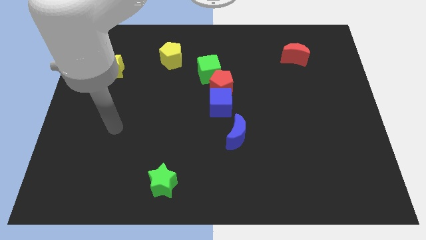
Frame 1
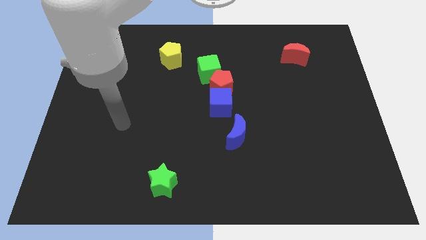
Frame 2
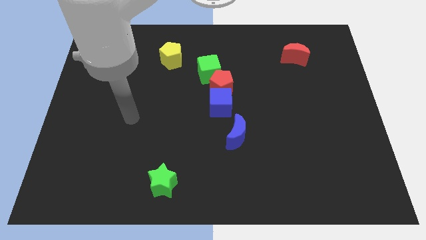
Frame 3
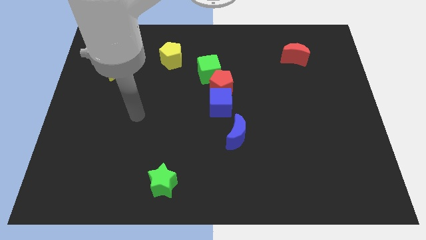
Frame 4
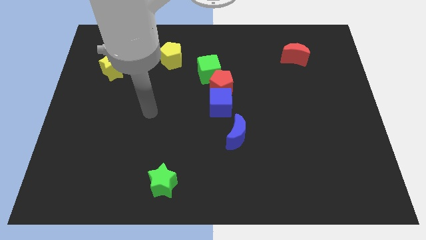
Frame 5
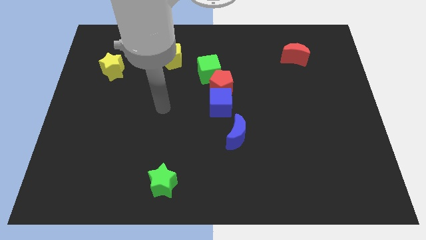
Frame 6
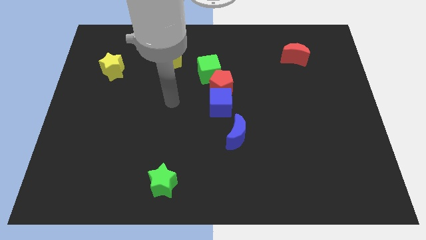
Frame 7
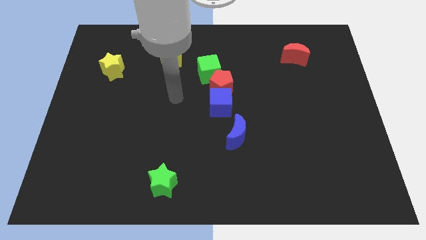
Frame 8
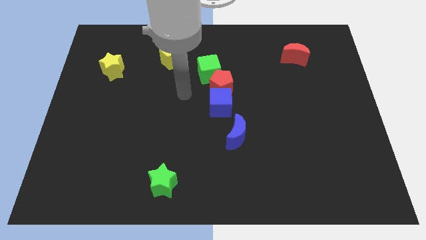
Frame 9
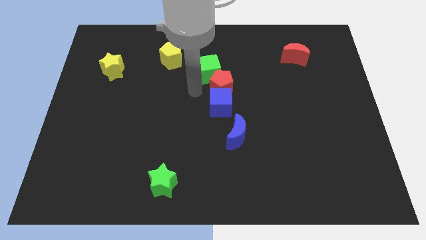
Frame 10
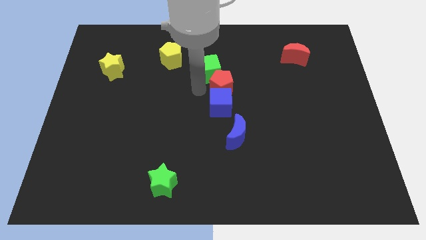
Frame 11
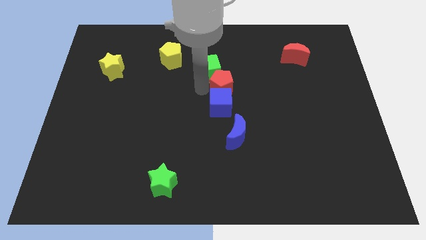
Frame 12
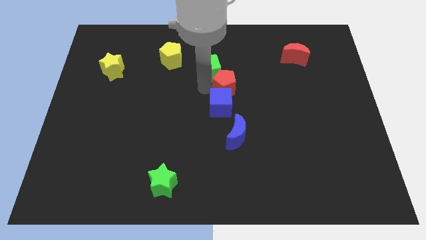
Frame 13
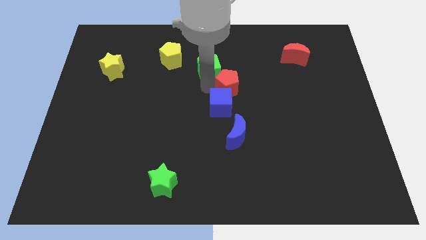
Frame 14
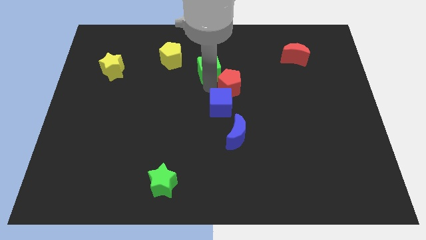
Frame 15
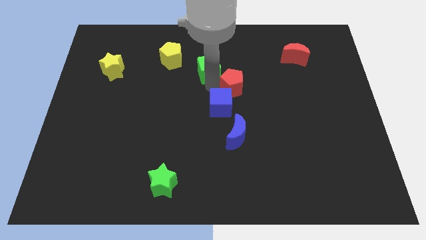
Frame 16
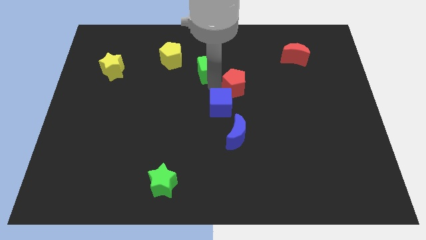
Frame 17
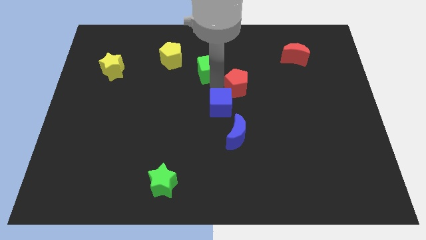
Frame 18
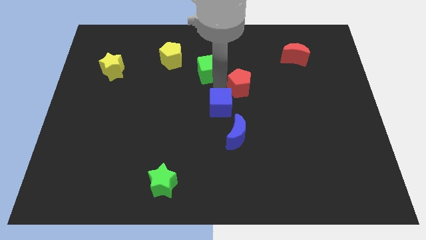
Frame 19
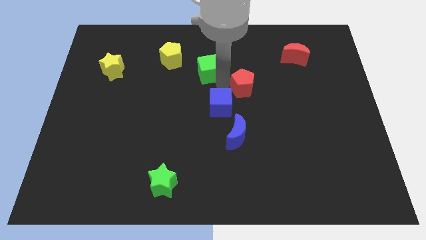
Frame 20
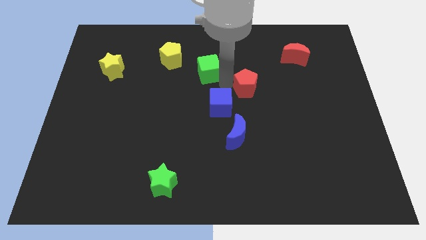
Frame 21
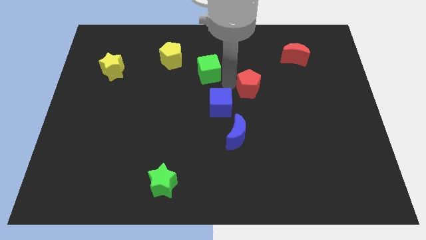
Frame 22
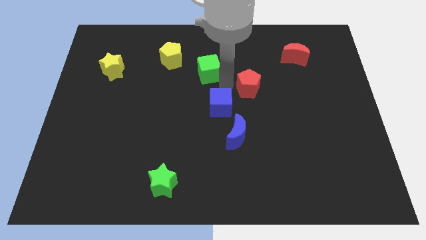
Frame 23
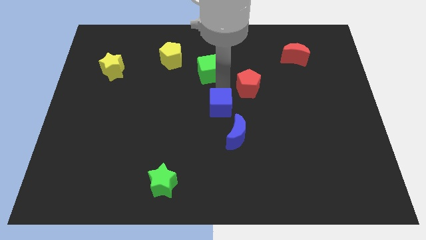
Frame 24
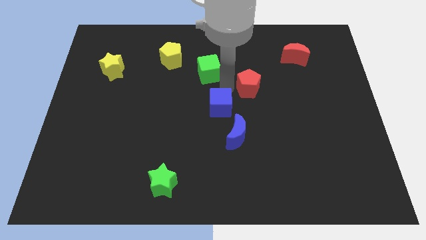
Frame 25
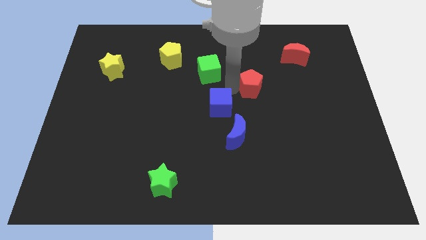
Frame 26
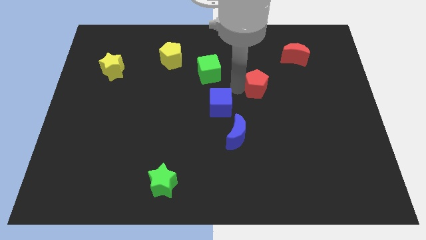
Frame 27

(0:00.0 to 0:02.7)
move the red pentagon away from the blue cube and green cube

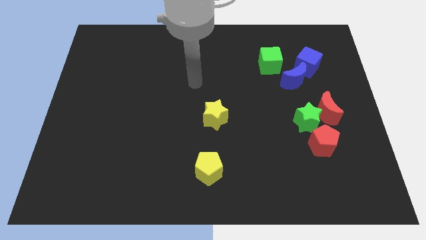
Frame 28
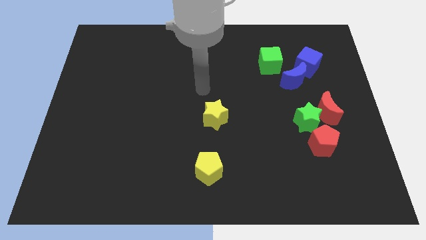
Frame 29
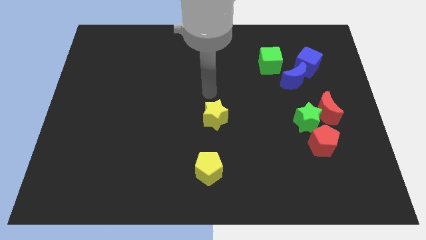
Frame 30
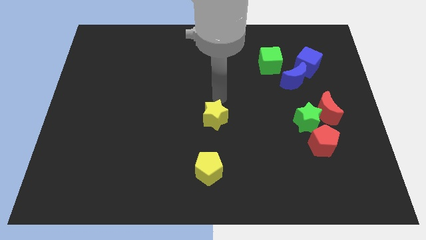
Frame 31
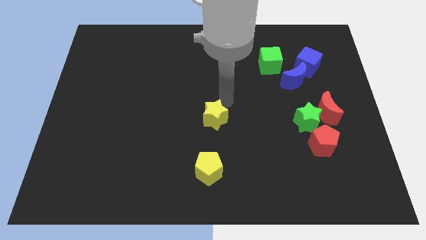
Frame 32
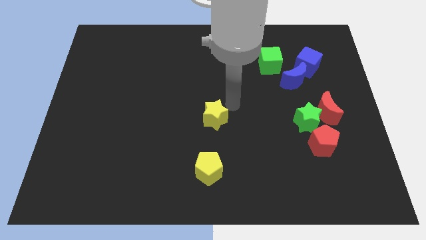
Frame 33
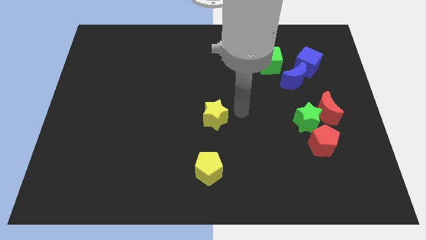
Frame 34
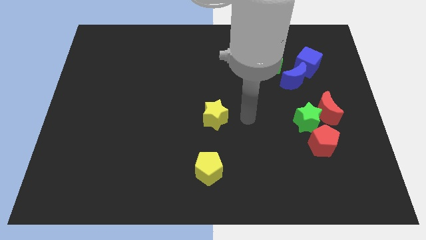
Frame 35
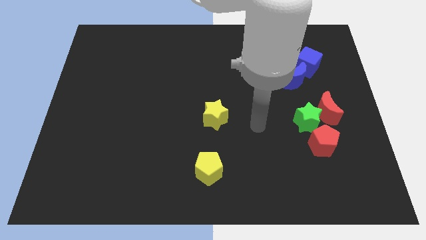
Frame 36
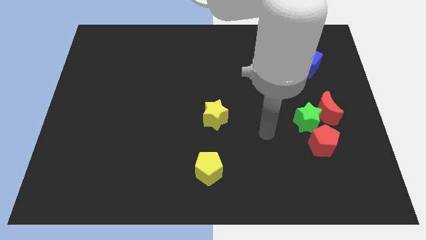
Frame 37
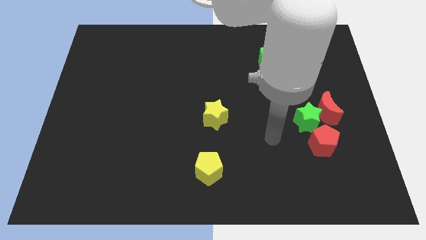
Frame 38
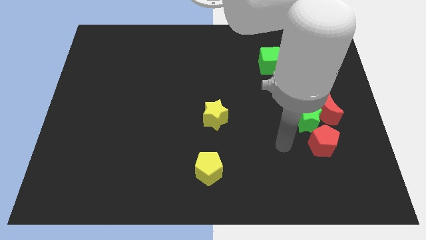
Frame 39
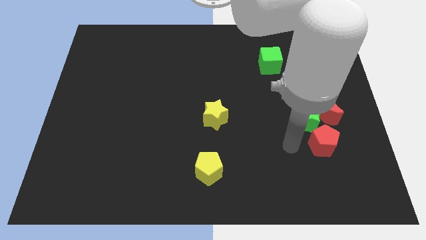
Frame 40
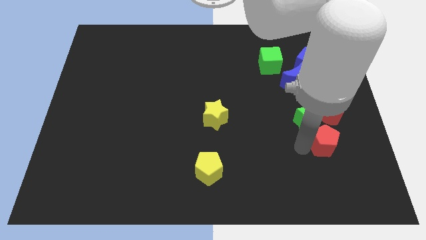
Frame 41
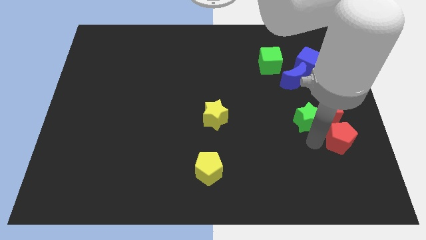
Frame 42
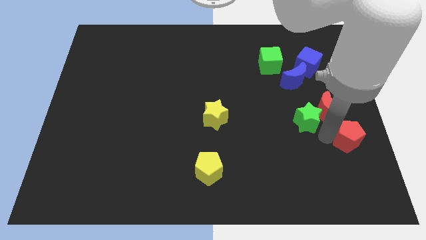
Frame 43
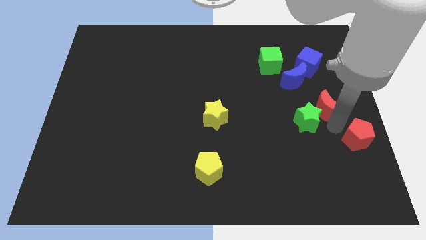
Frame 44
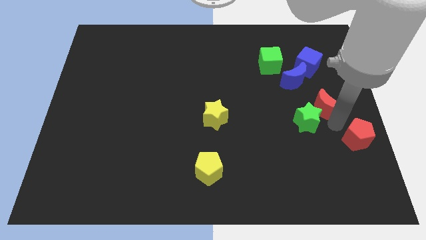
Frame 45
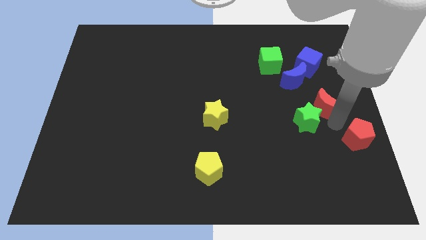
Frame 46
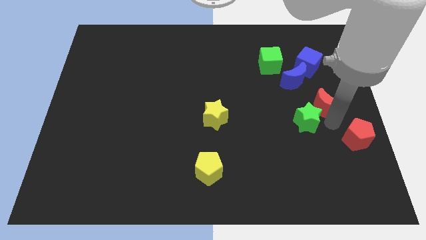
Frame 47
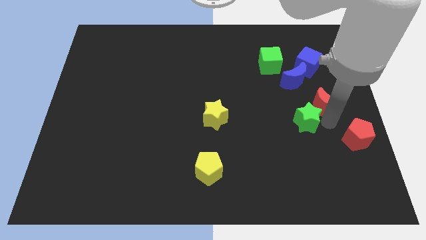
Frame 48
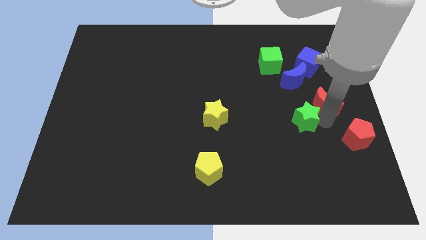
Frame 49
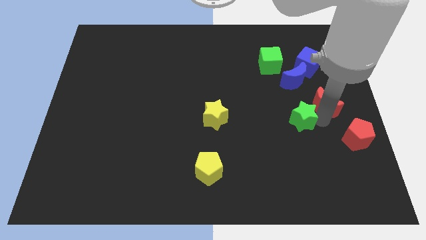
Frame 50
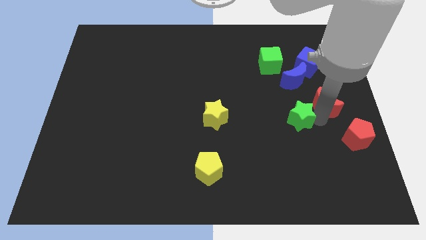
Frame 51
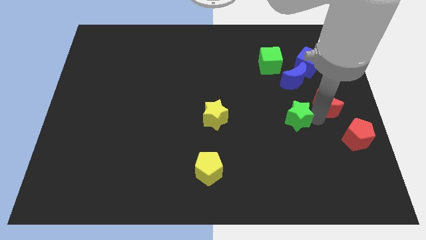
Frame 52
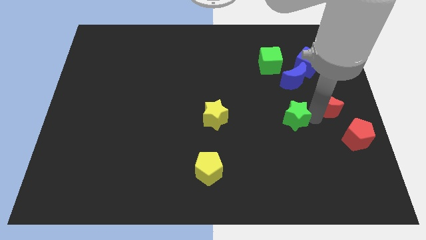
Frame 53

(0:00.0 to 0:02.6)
move the green star away from the red moon and red pentagon

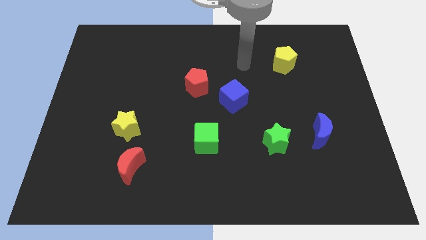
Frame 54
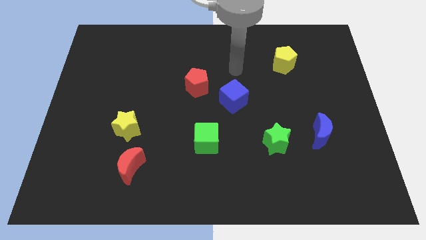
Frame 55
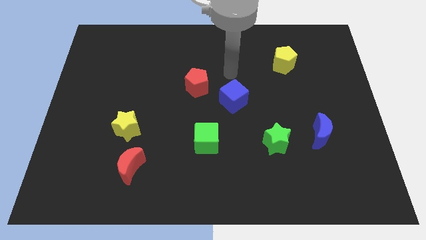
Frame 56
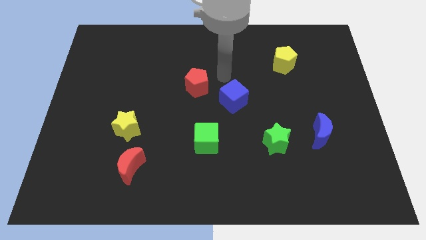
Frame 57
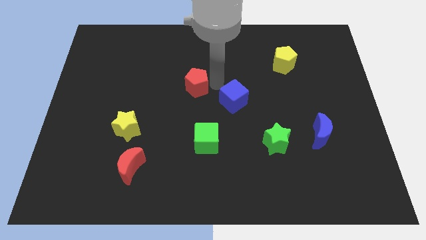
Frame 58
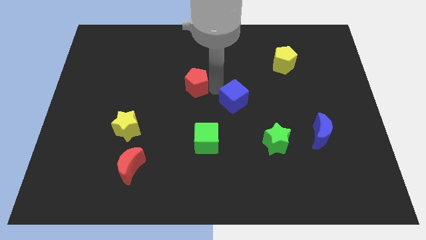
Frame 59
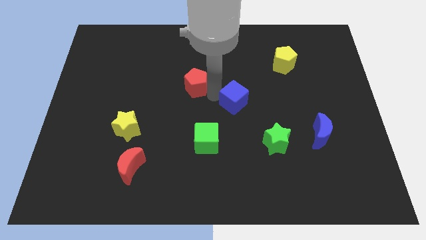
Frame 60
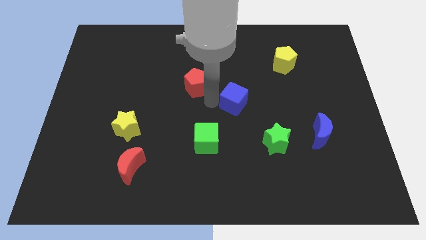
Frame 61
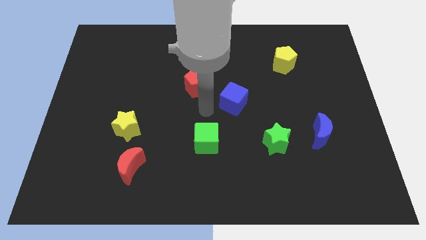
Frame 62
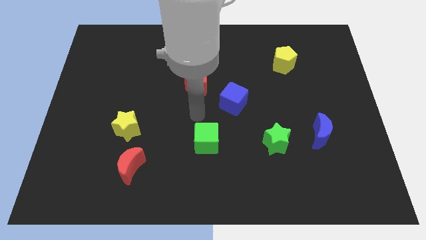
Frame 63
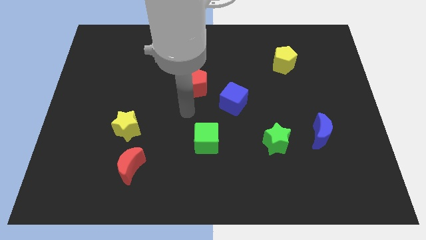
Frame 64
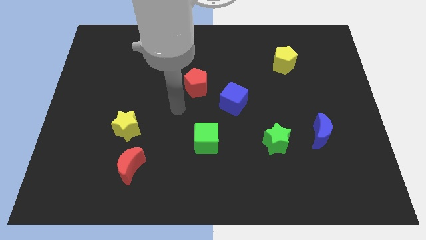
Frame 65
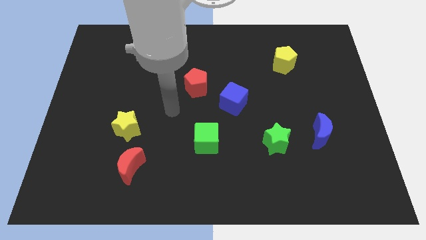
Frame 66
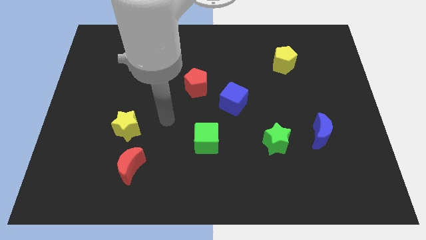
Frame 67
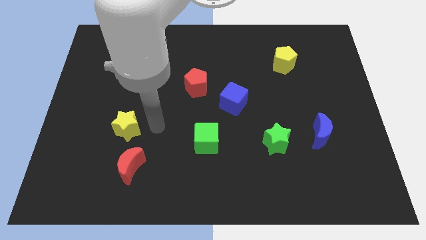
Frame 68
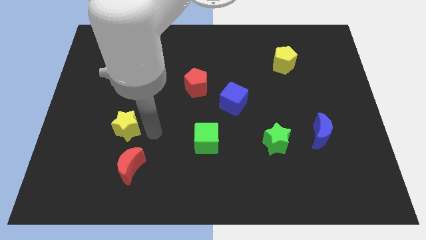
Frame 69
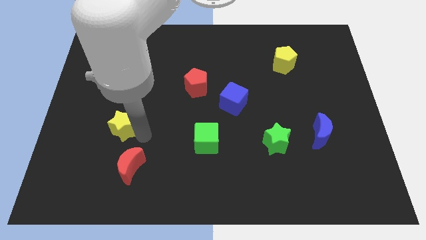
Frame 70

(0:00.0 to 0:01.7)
pull the red moon apart from the yellow star

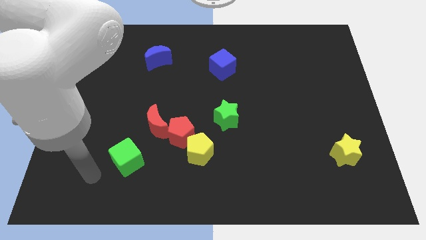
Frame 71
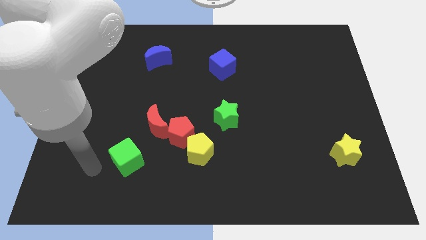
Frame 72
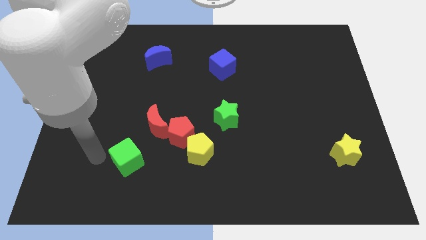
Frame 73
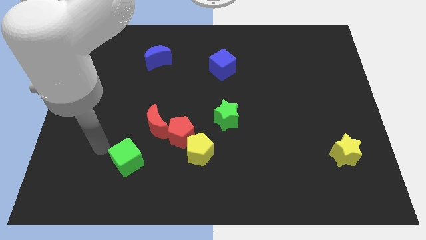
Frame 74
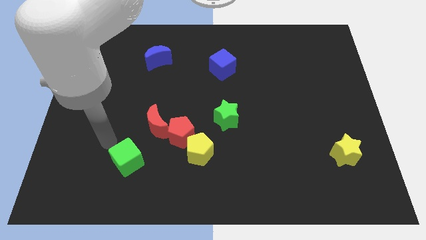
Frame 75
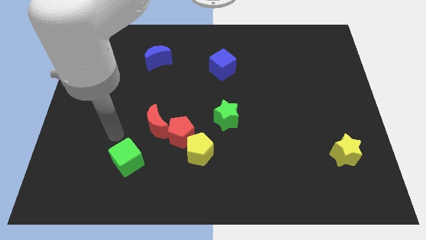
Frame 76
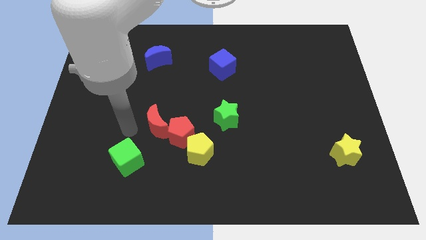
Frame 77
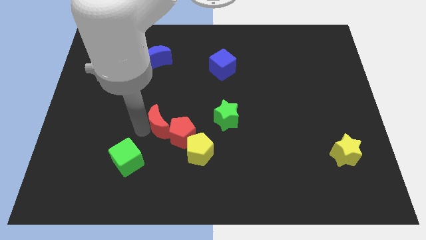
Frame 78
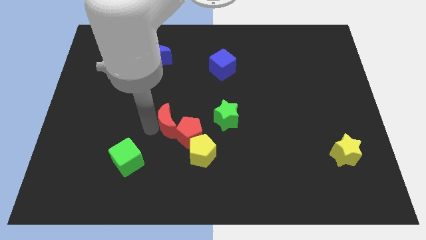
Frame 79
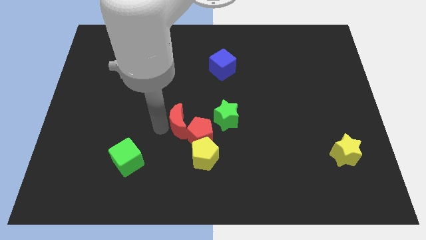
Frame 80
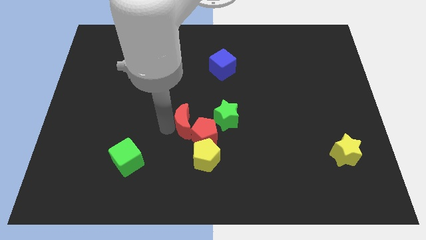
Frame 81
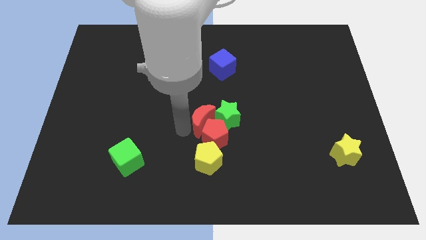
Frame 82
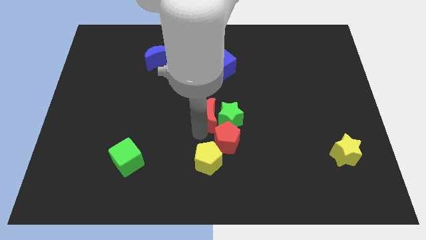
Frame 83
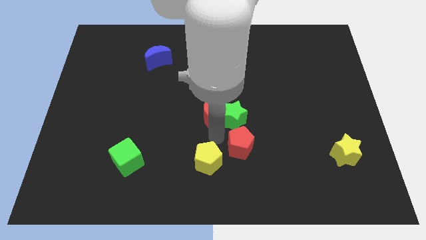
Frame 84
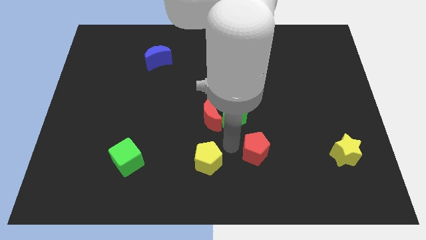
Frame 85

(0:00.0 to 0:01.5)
move the yellow pentagon away from the red pentagon

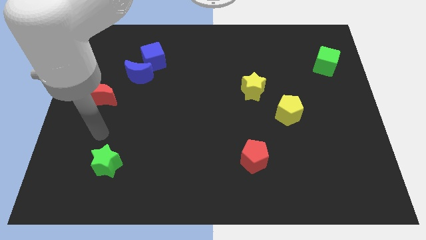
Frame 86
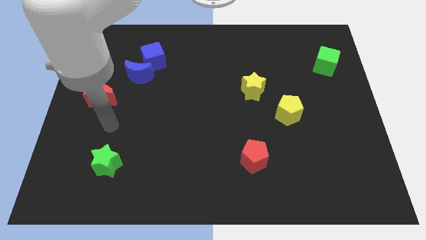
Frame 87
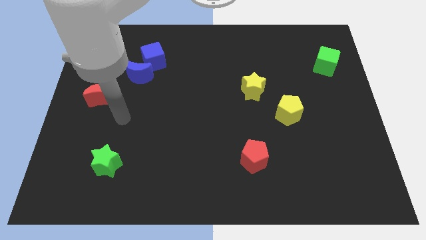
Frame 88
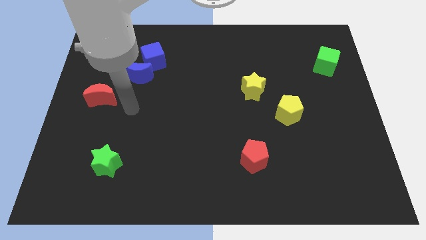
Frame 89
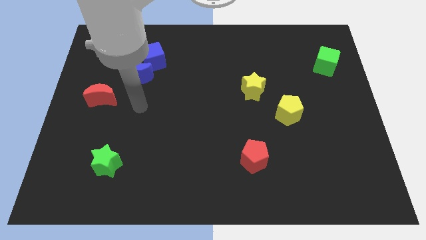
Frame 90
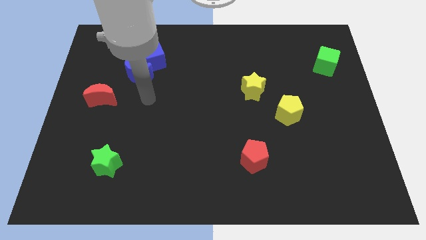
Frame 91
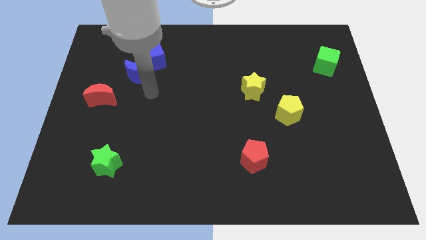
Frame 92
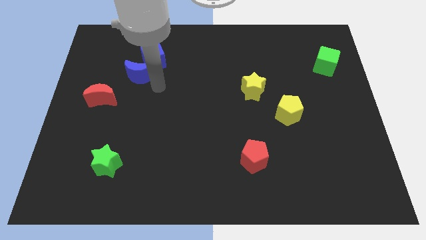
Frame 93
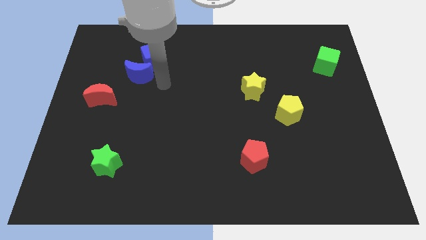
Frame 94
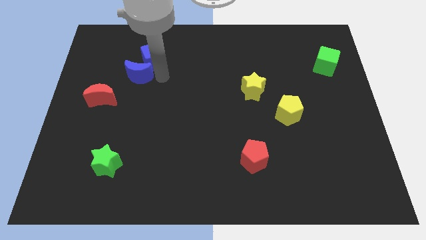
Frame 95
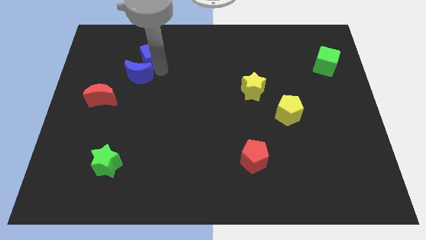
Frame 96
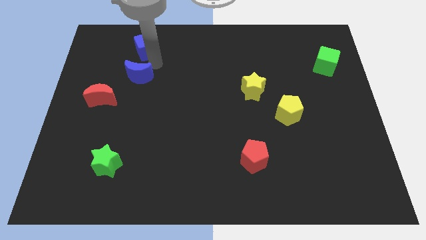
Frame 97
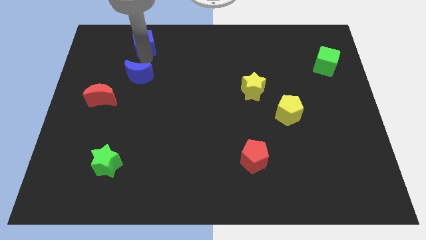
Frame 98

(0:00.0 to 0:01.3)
move the blue moon away from the blue cube
